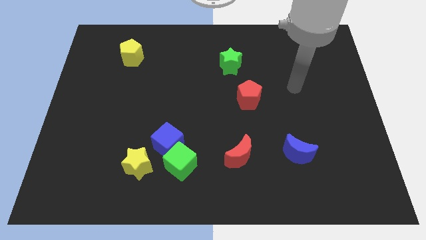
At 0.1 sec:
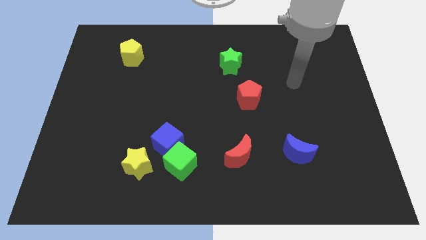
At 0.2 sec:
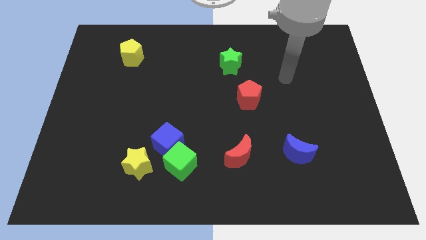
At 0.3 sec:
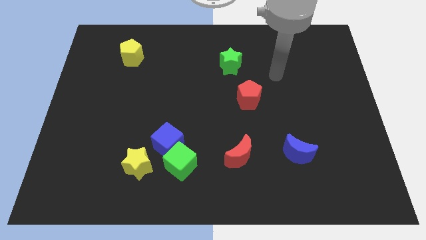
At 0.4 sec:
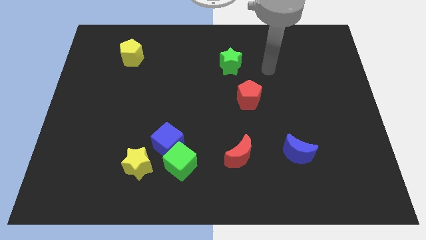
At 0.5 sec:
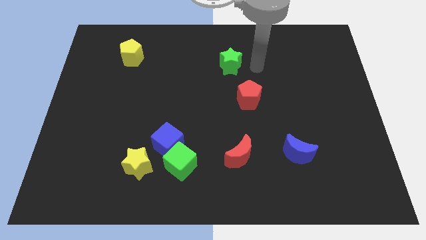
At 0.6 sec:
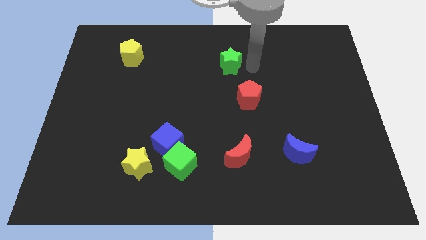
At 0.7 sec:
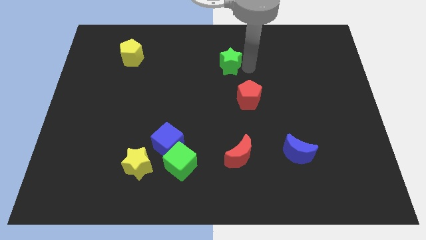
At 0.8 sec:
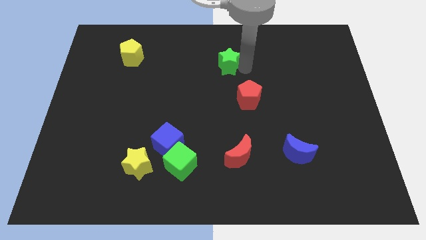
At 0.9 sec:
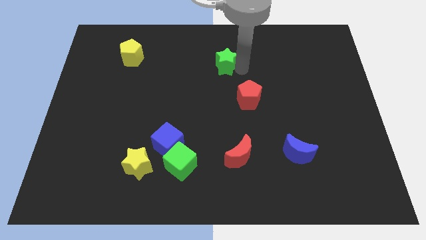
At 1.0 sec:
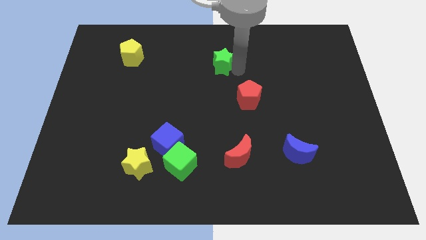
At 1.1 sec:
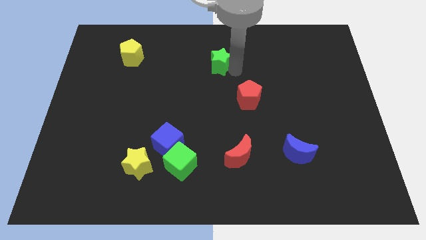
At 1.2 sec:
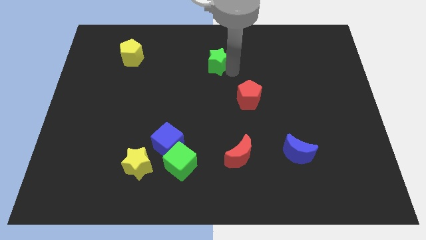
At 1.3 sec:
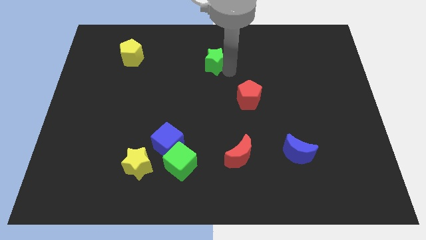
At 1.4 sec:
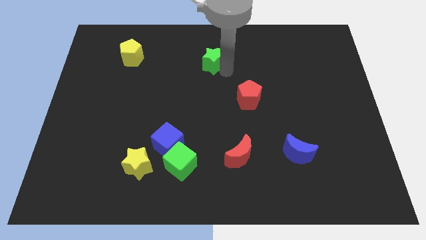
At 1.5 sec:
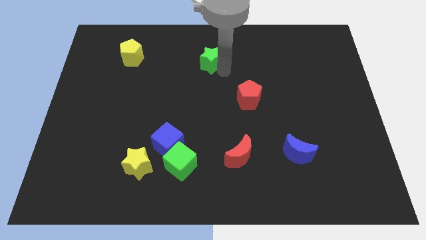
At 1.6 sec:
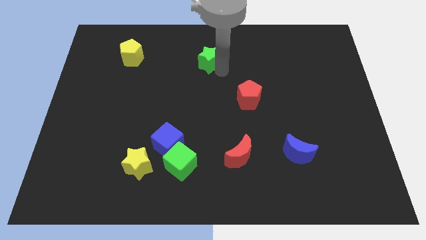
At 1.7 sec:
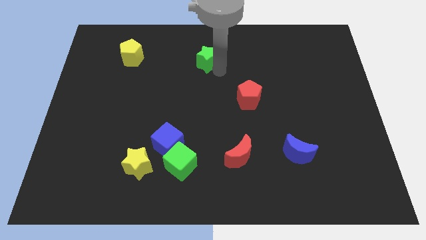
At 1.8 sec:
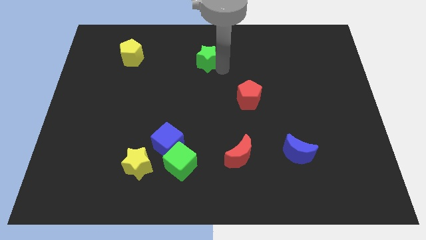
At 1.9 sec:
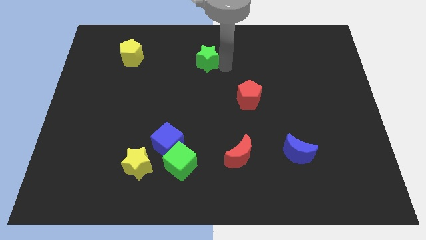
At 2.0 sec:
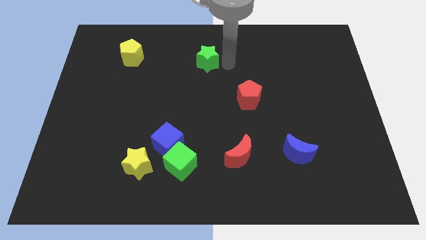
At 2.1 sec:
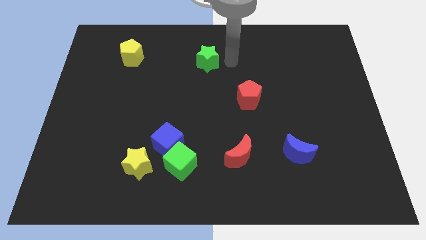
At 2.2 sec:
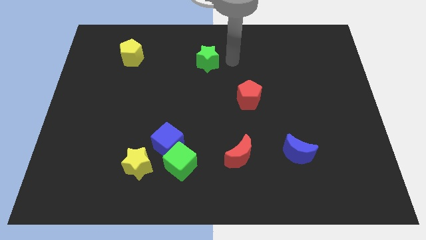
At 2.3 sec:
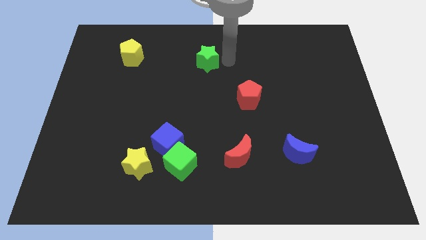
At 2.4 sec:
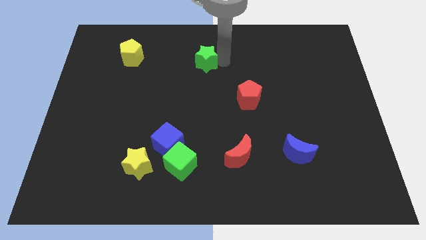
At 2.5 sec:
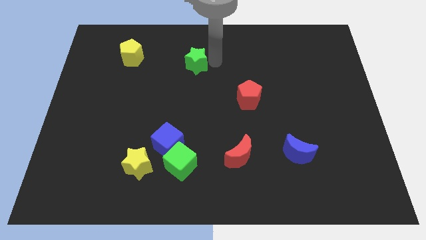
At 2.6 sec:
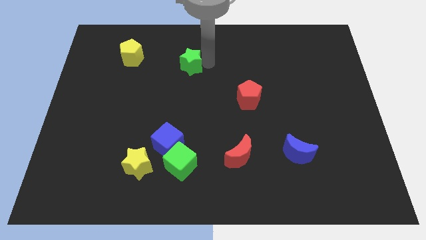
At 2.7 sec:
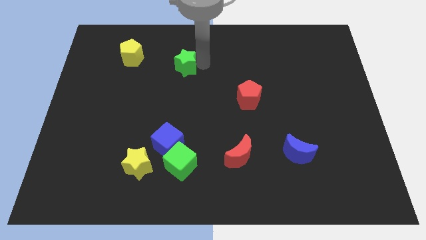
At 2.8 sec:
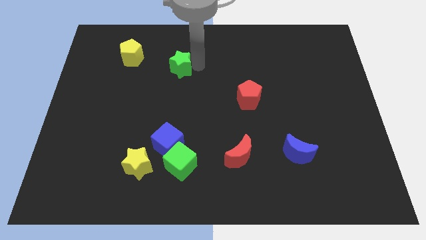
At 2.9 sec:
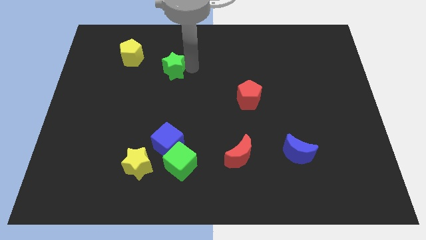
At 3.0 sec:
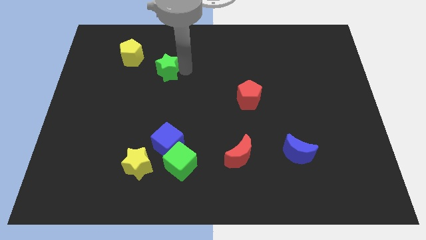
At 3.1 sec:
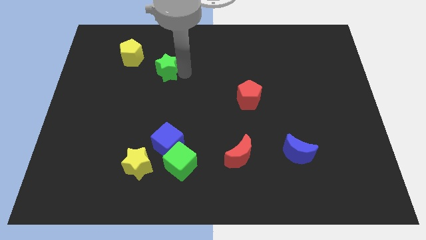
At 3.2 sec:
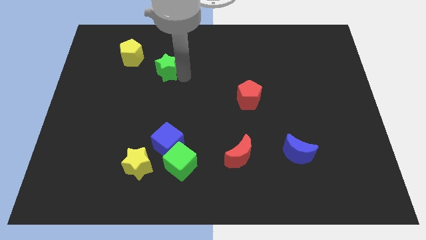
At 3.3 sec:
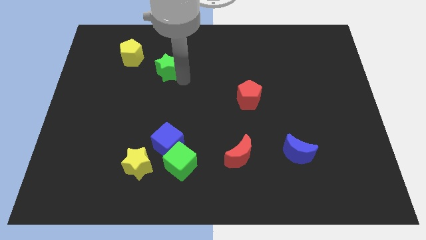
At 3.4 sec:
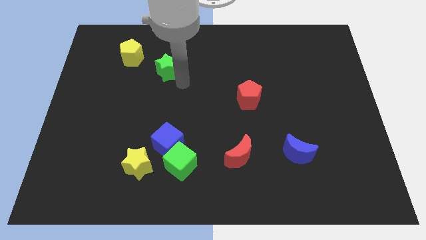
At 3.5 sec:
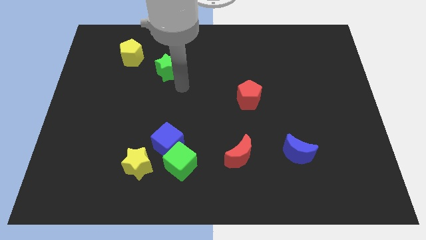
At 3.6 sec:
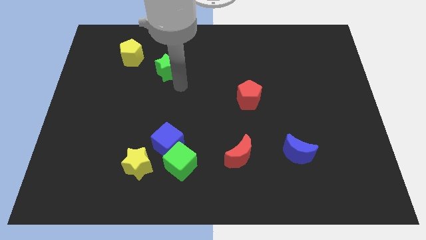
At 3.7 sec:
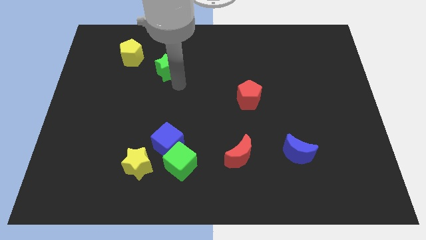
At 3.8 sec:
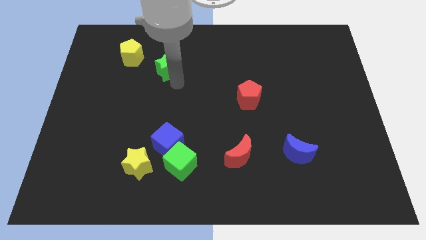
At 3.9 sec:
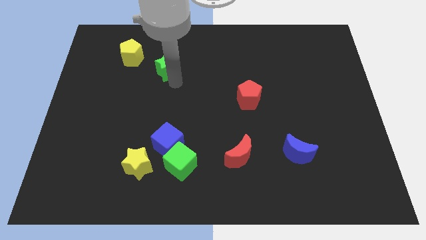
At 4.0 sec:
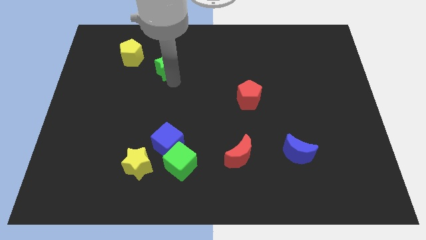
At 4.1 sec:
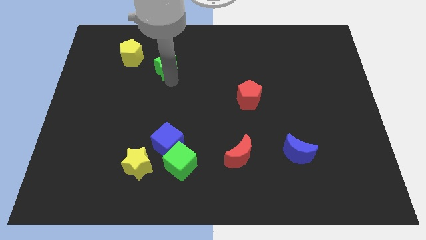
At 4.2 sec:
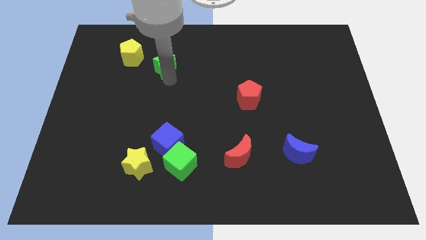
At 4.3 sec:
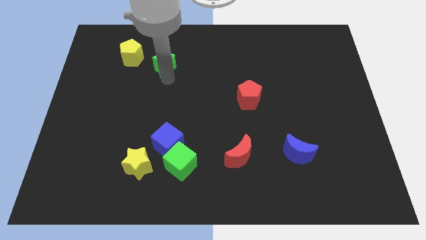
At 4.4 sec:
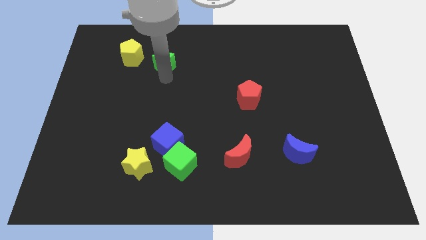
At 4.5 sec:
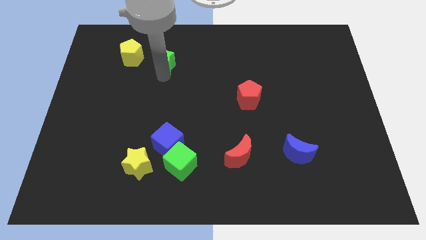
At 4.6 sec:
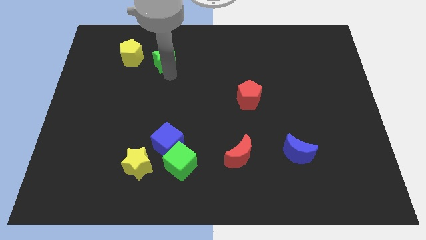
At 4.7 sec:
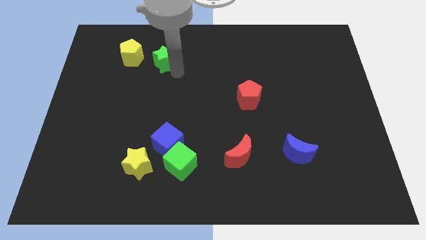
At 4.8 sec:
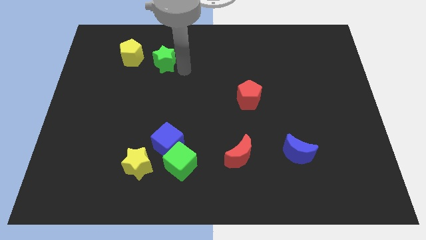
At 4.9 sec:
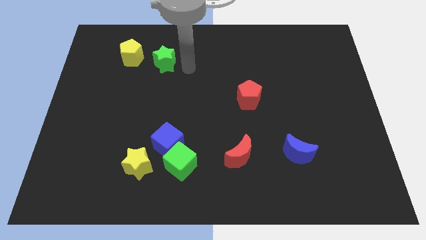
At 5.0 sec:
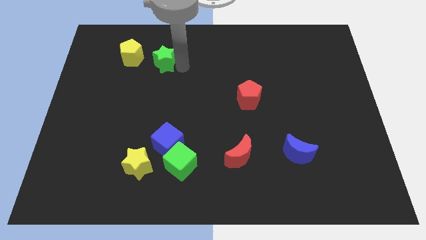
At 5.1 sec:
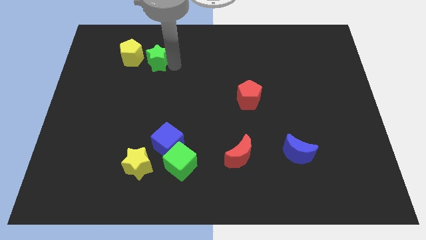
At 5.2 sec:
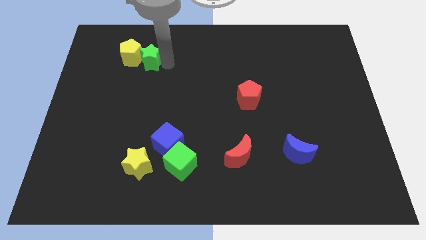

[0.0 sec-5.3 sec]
push the green star towards the yellow pentagon

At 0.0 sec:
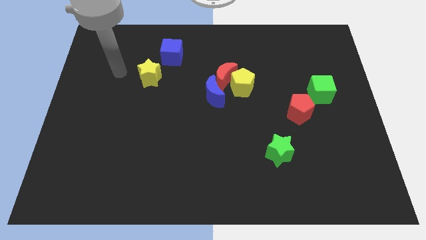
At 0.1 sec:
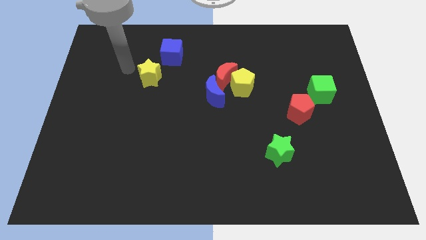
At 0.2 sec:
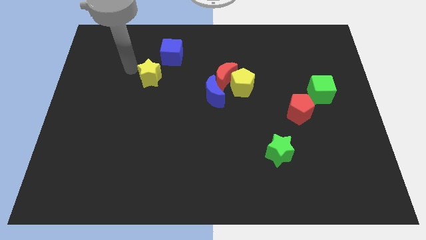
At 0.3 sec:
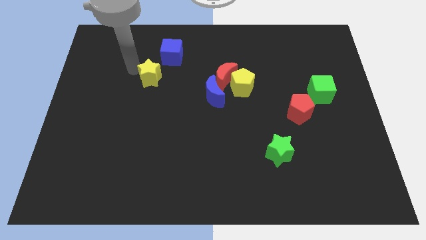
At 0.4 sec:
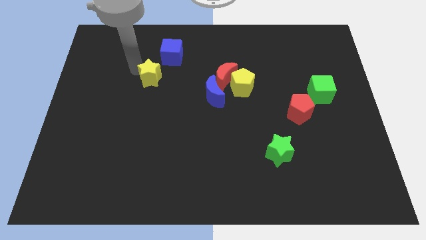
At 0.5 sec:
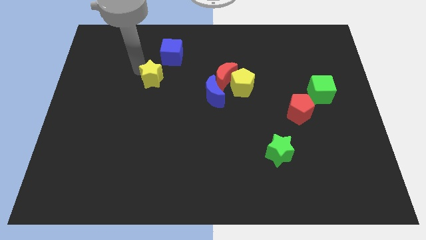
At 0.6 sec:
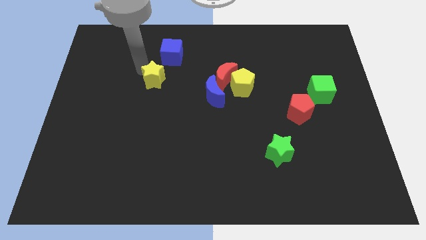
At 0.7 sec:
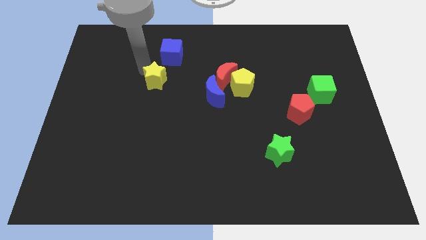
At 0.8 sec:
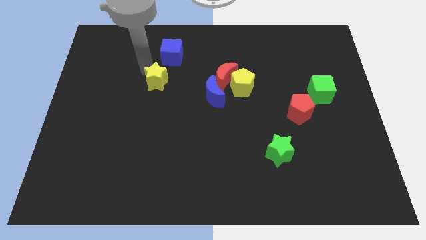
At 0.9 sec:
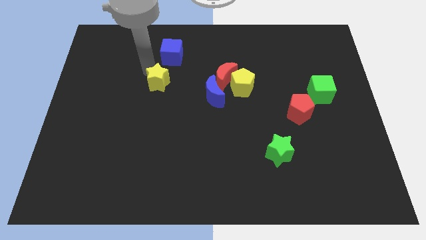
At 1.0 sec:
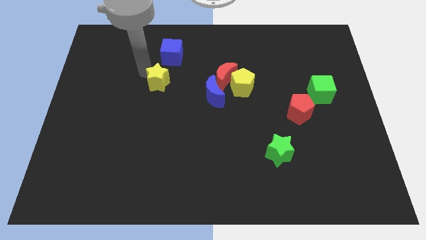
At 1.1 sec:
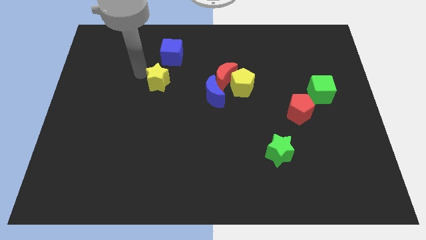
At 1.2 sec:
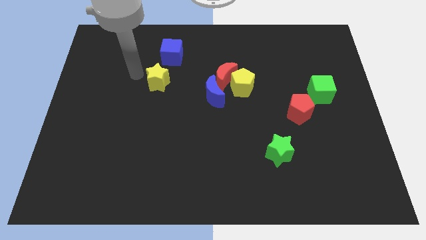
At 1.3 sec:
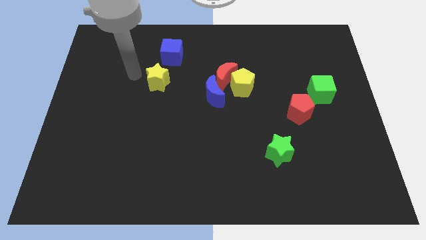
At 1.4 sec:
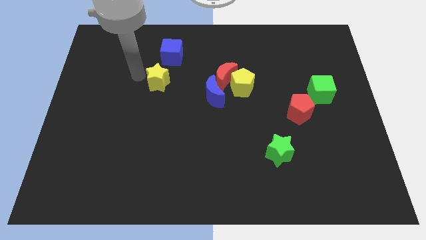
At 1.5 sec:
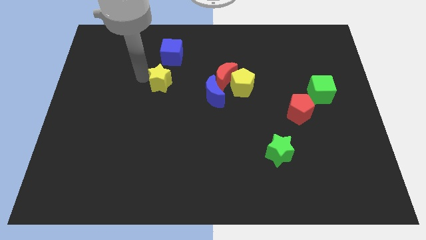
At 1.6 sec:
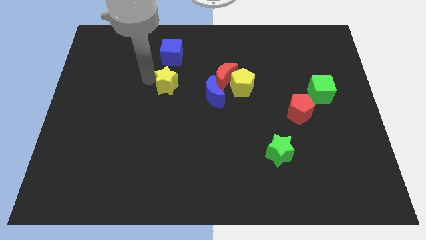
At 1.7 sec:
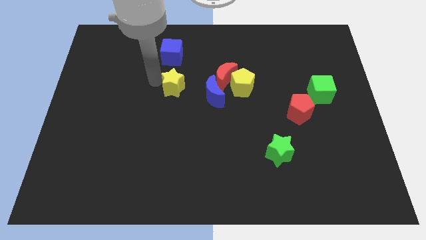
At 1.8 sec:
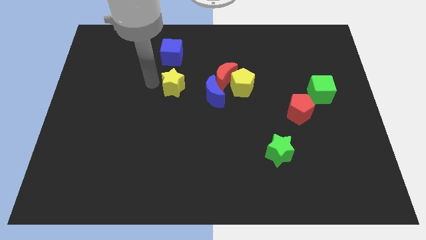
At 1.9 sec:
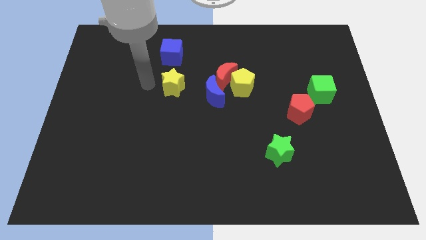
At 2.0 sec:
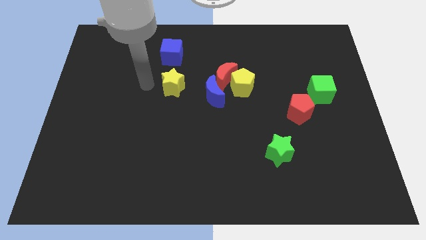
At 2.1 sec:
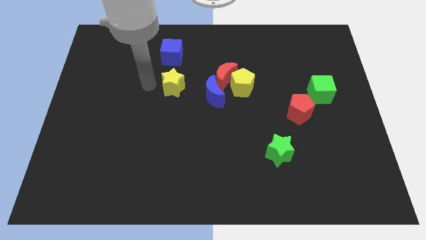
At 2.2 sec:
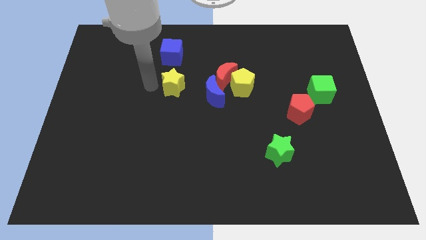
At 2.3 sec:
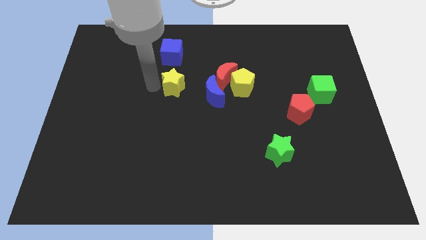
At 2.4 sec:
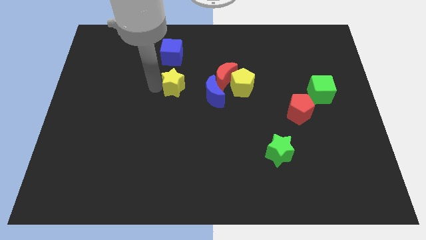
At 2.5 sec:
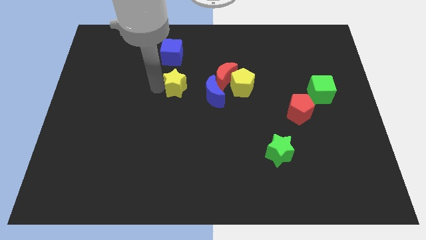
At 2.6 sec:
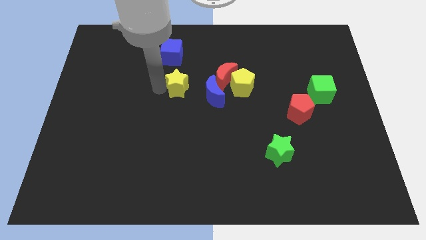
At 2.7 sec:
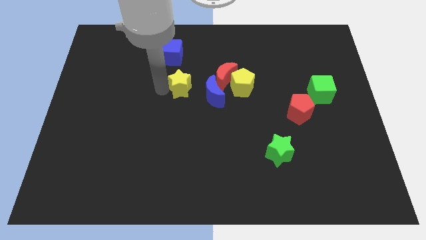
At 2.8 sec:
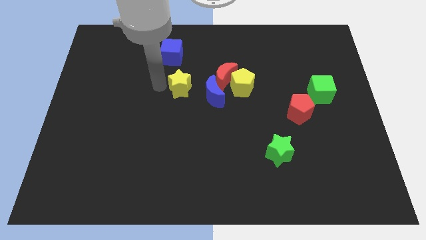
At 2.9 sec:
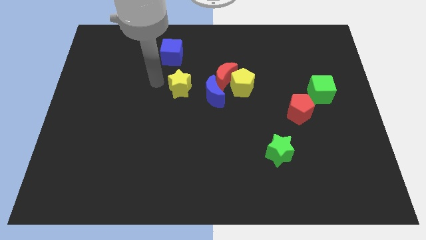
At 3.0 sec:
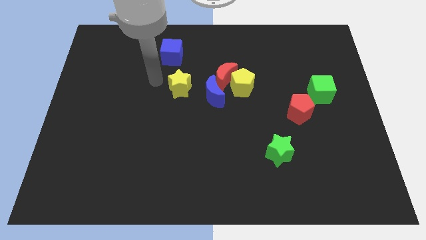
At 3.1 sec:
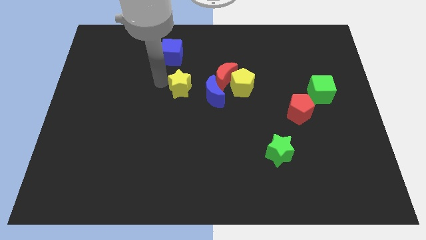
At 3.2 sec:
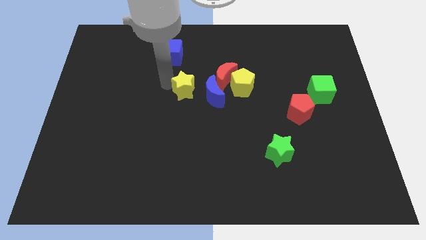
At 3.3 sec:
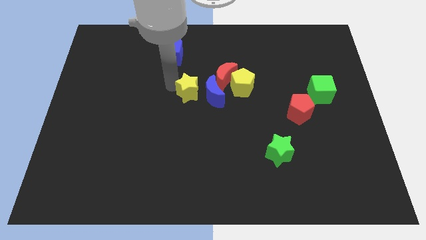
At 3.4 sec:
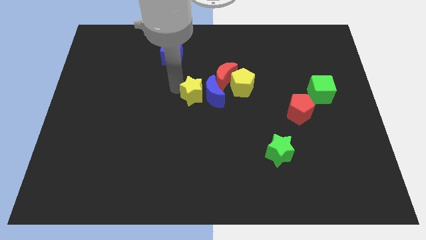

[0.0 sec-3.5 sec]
move the yellow star next to the blue moon
